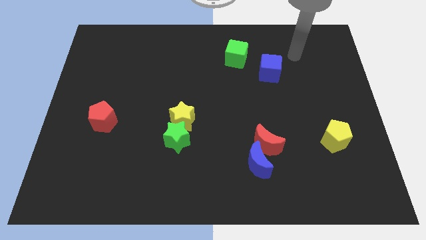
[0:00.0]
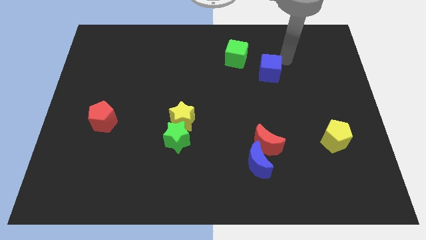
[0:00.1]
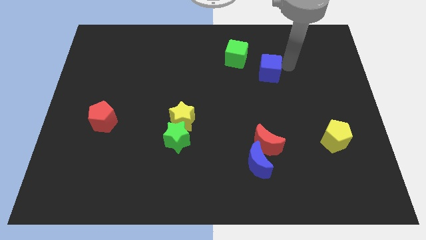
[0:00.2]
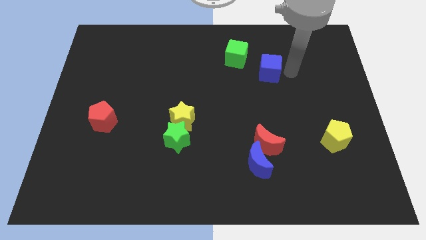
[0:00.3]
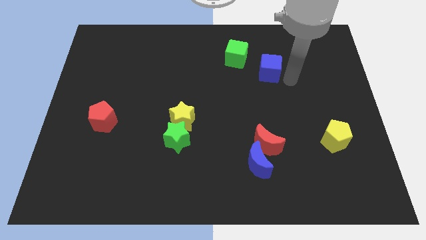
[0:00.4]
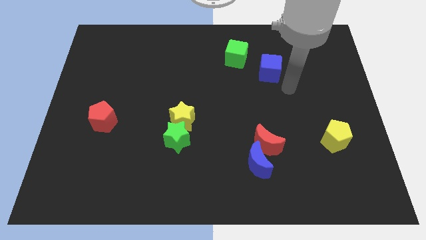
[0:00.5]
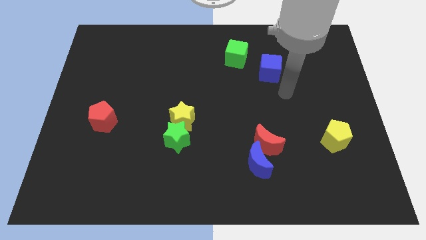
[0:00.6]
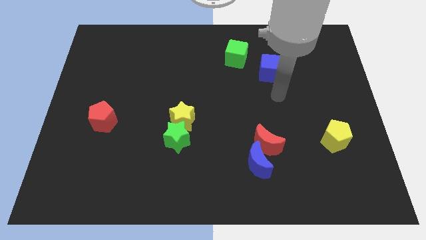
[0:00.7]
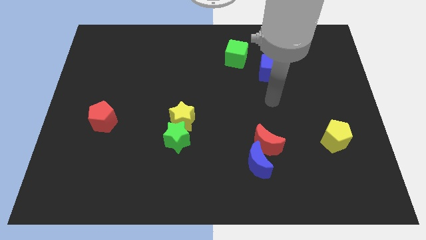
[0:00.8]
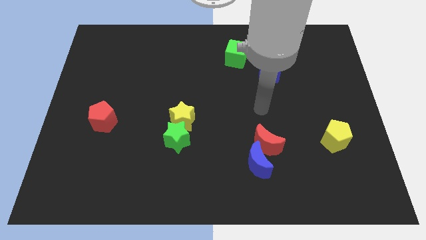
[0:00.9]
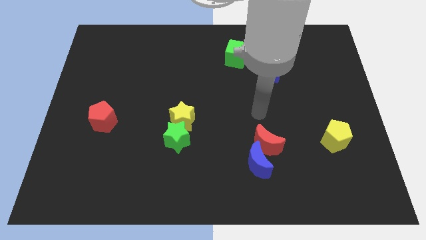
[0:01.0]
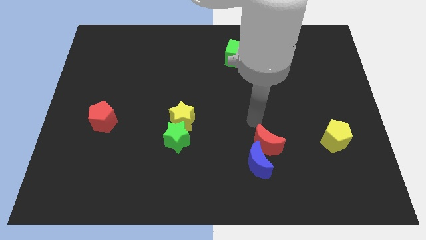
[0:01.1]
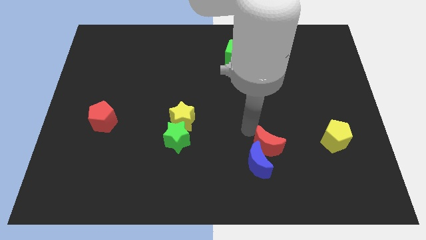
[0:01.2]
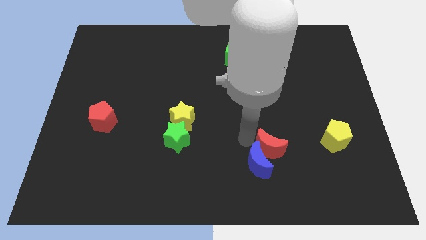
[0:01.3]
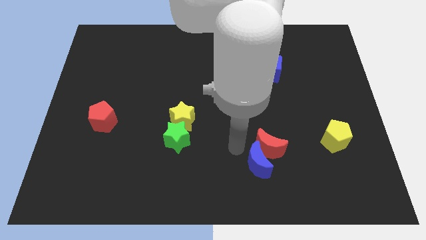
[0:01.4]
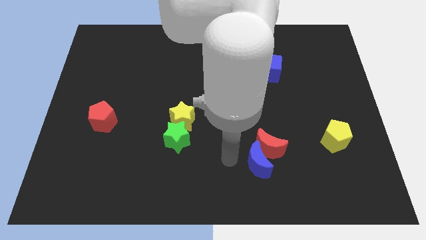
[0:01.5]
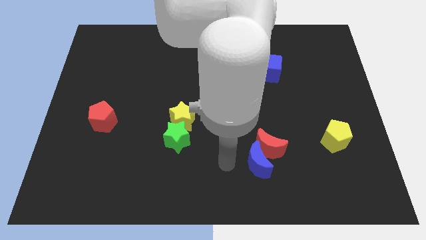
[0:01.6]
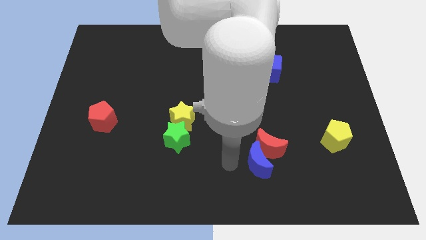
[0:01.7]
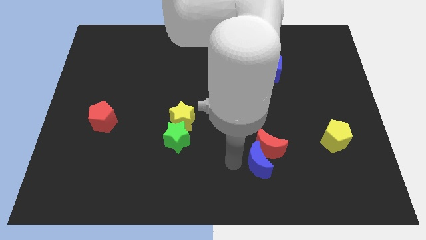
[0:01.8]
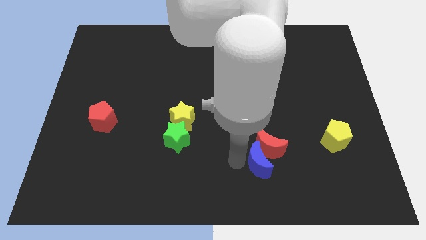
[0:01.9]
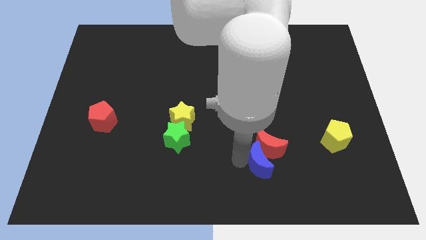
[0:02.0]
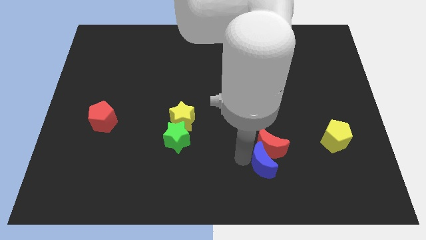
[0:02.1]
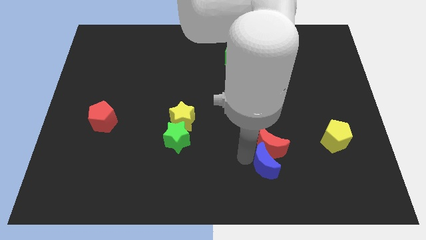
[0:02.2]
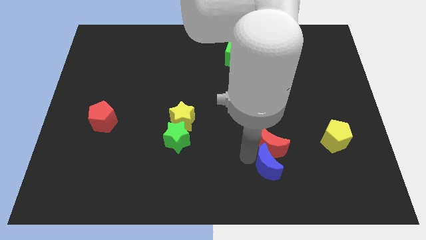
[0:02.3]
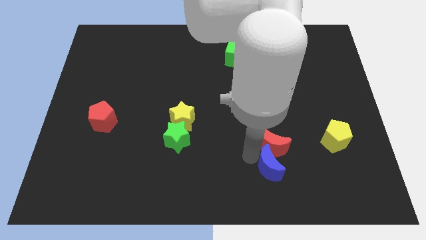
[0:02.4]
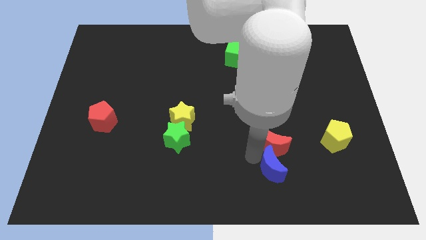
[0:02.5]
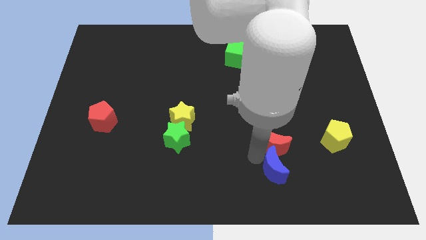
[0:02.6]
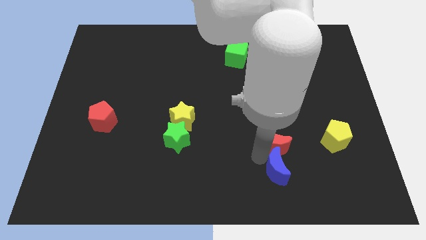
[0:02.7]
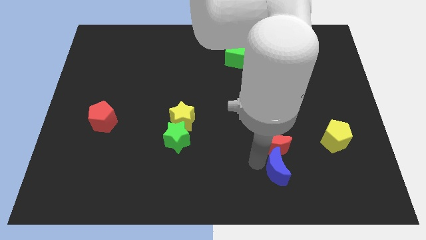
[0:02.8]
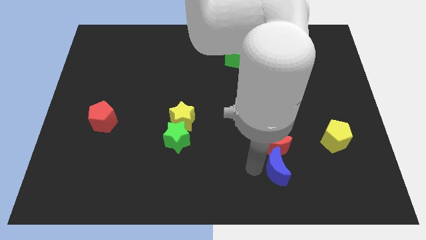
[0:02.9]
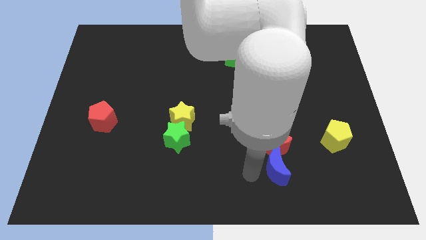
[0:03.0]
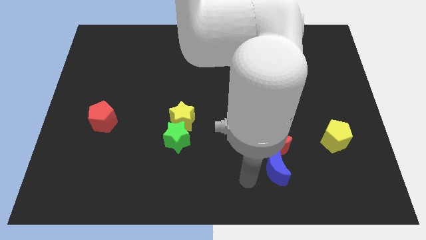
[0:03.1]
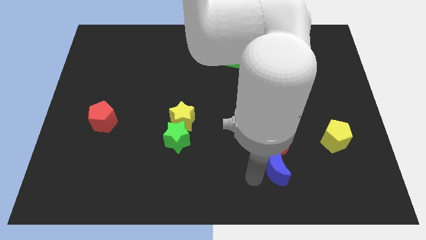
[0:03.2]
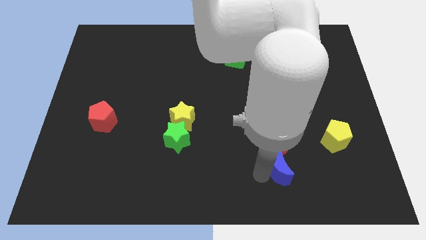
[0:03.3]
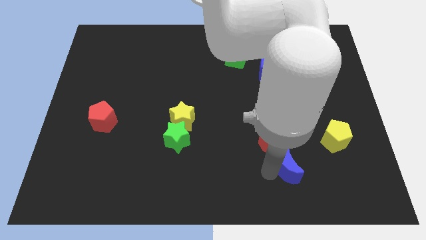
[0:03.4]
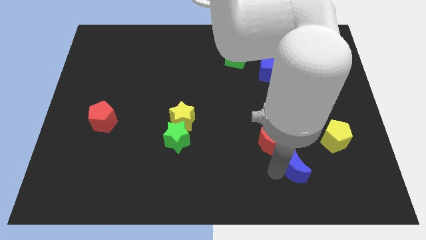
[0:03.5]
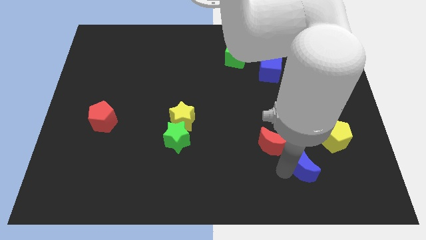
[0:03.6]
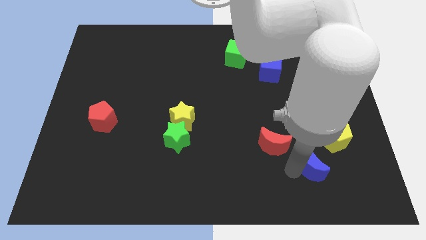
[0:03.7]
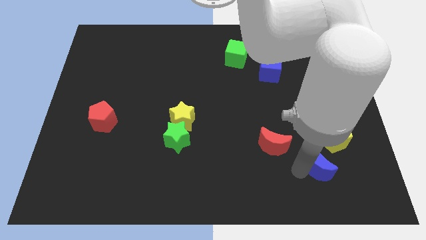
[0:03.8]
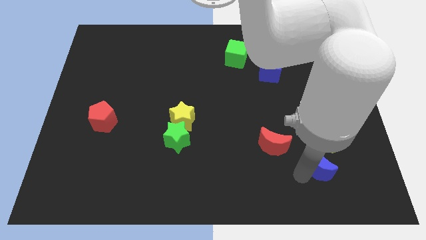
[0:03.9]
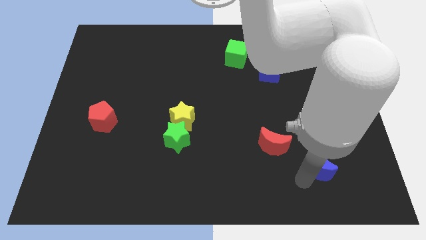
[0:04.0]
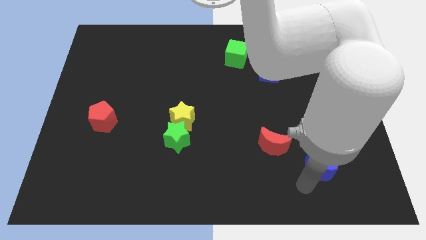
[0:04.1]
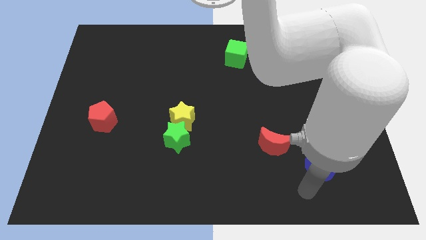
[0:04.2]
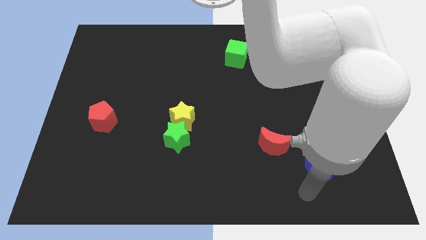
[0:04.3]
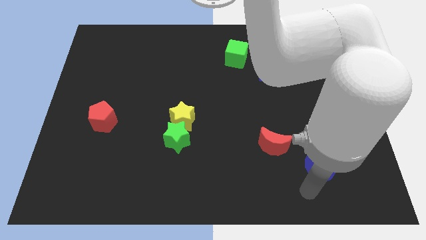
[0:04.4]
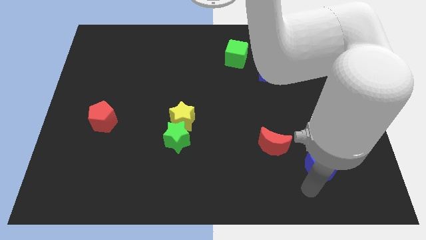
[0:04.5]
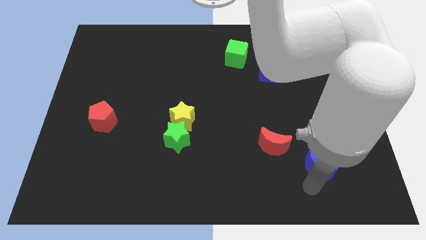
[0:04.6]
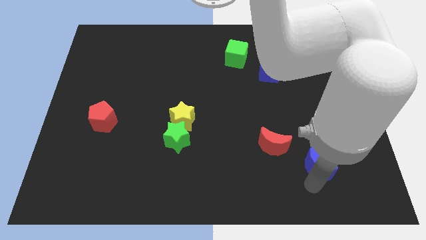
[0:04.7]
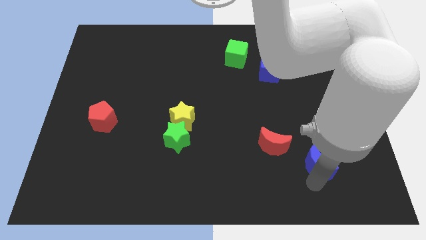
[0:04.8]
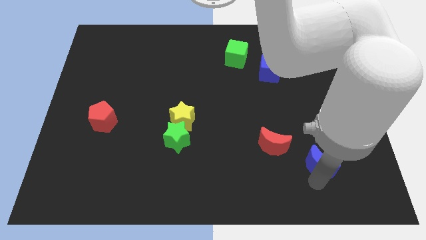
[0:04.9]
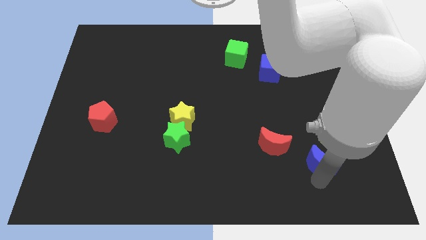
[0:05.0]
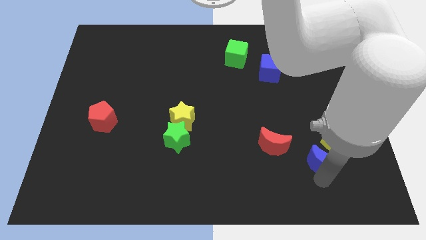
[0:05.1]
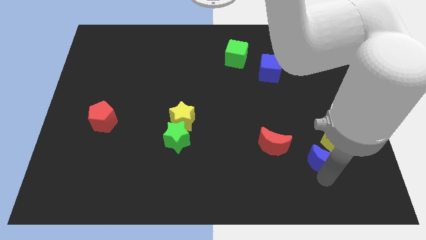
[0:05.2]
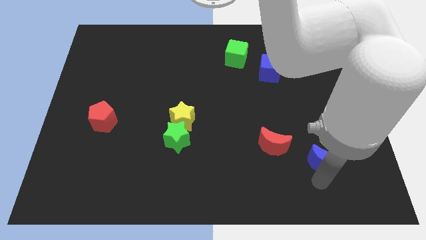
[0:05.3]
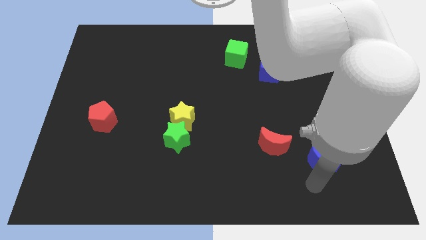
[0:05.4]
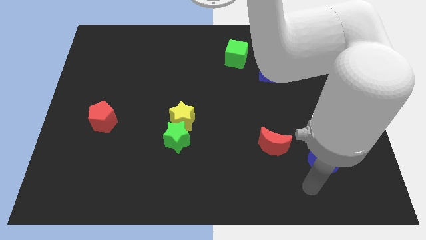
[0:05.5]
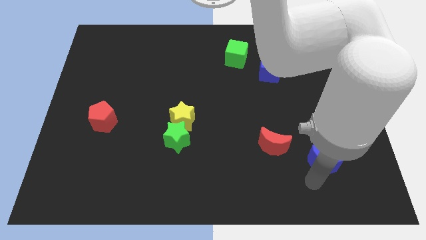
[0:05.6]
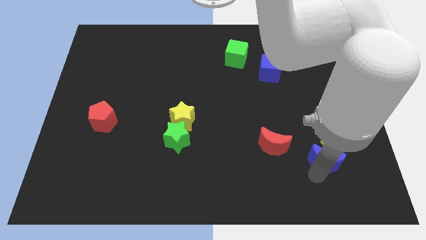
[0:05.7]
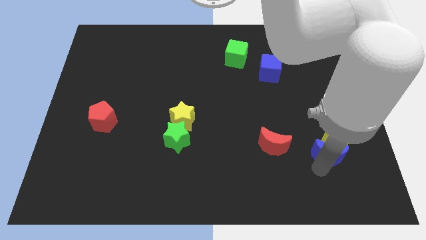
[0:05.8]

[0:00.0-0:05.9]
put the blue moon to the yellow pentagon
